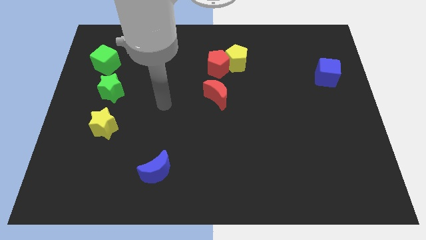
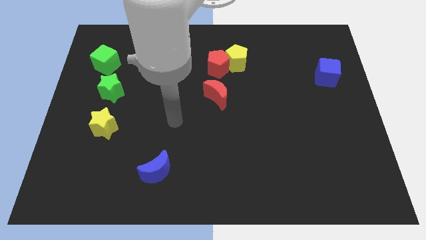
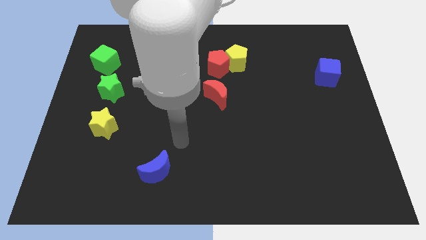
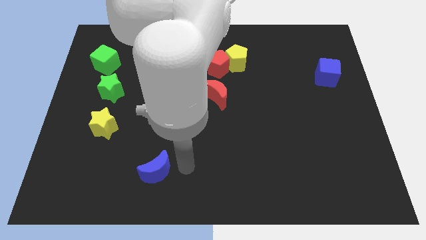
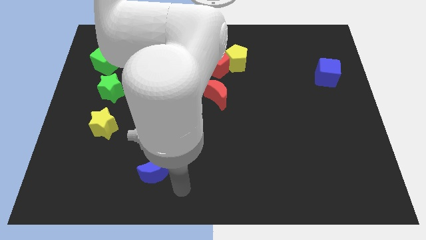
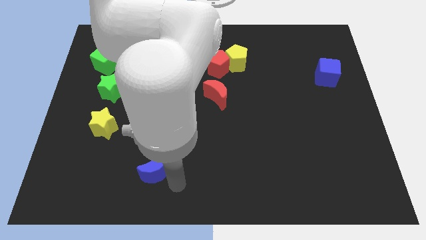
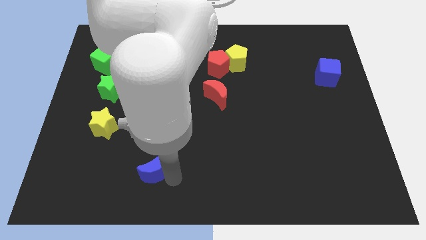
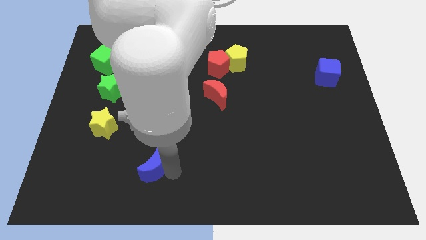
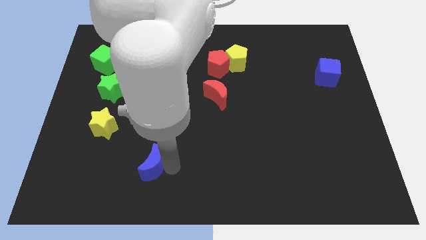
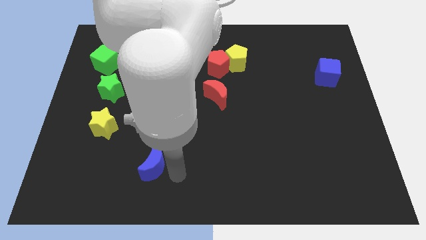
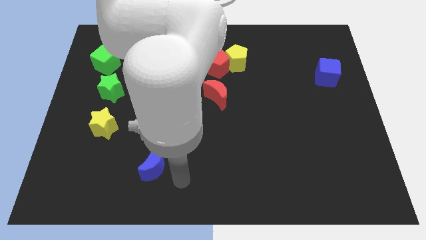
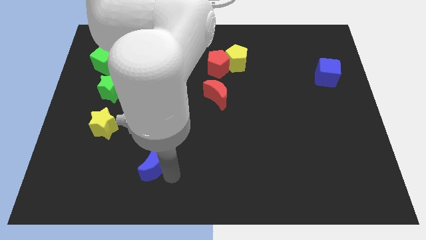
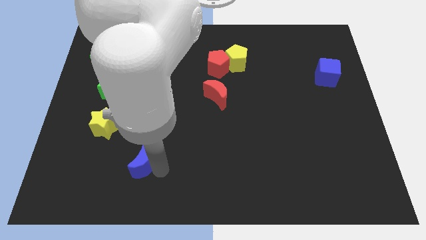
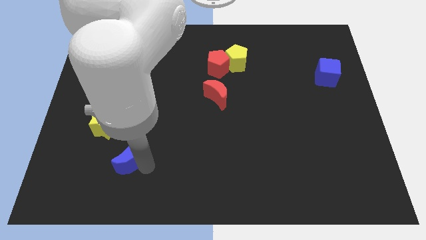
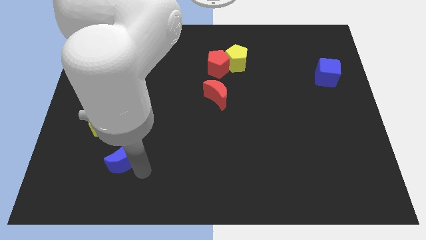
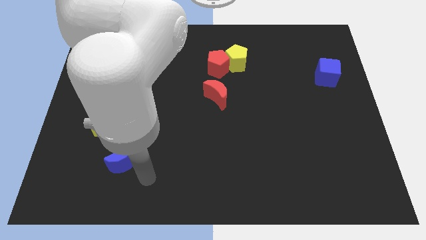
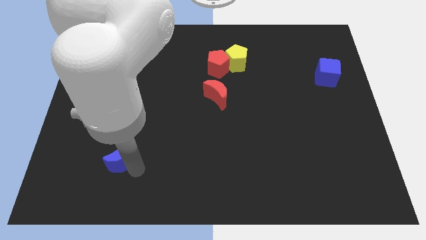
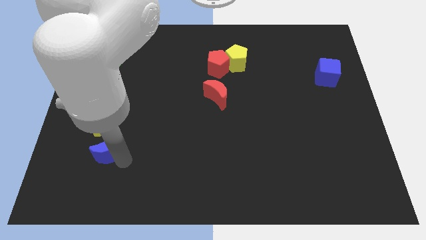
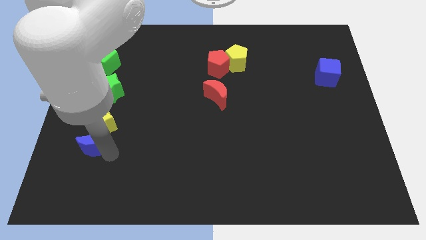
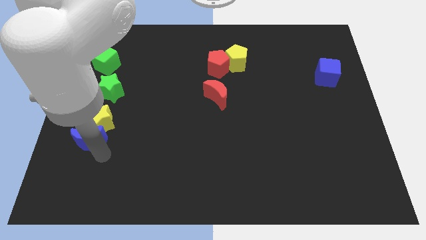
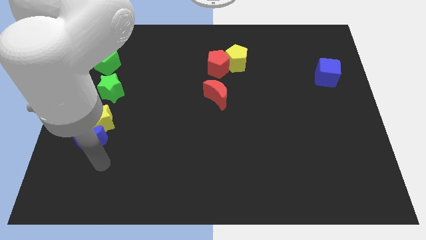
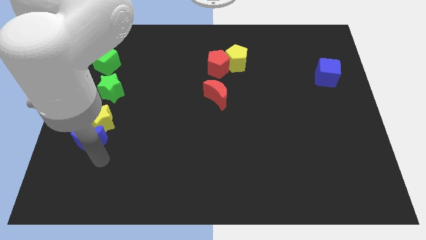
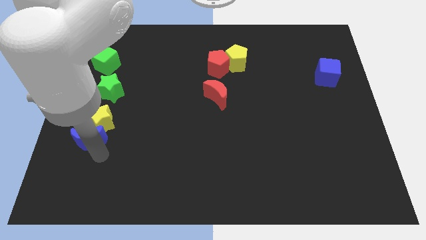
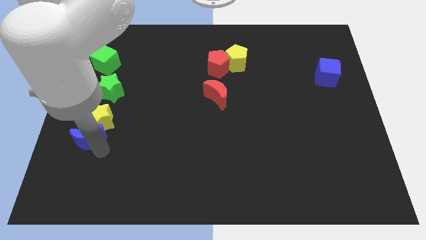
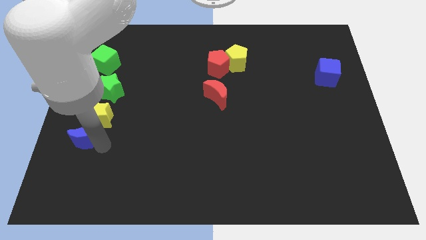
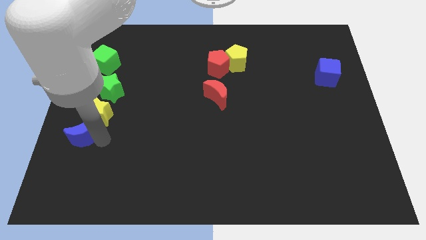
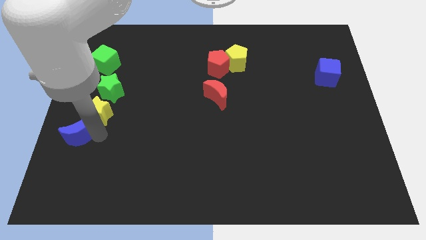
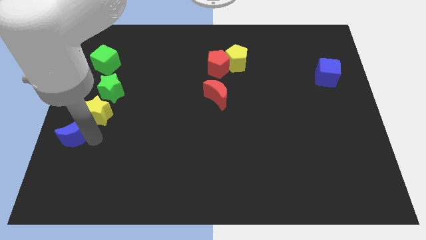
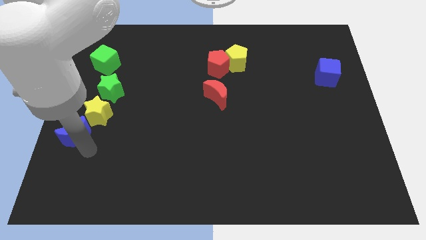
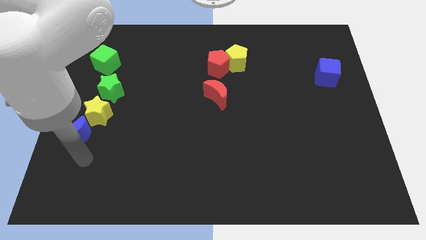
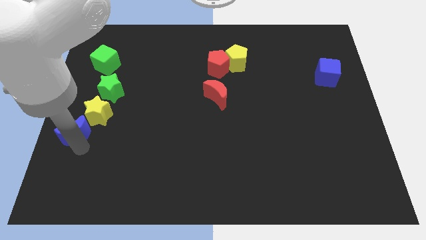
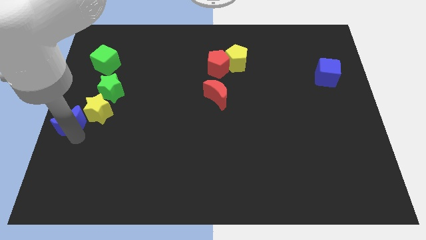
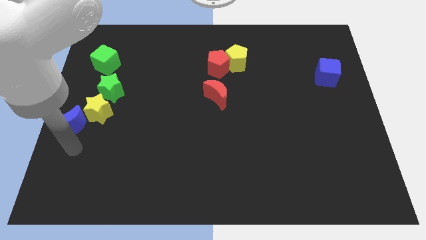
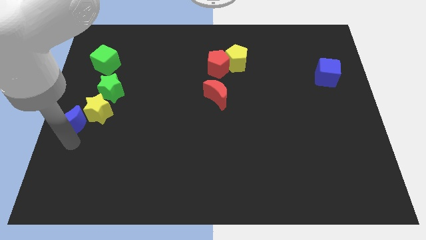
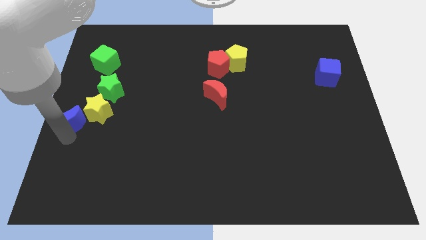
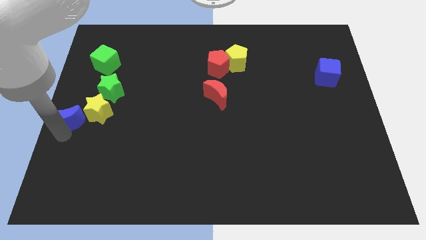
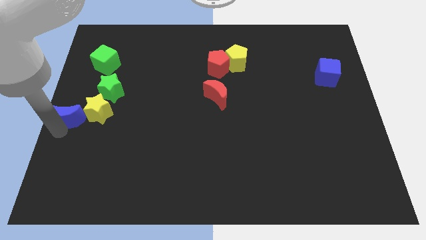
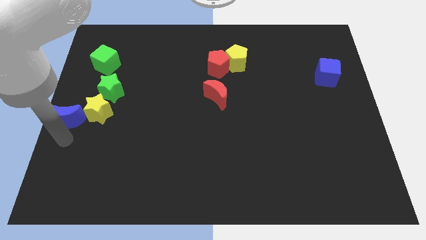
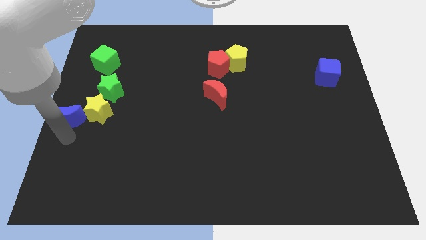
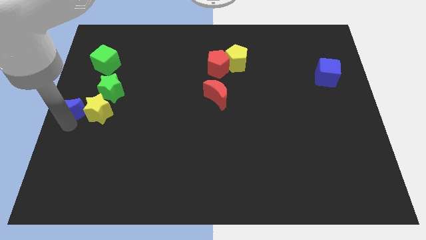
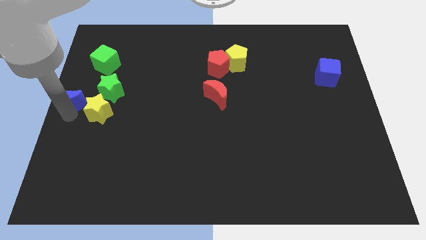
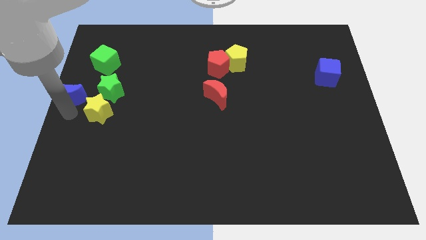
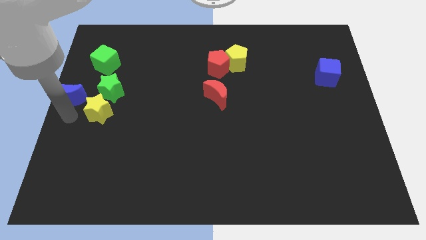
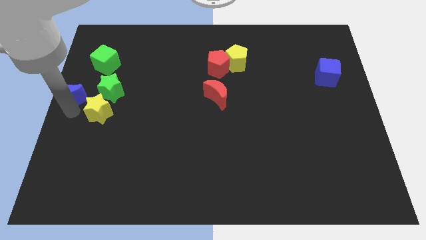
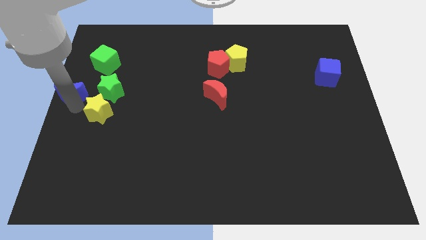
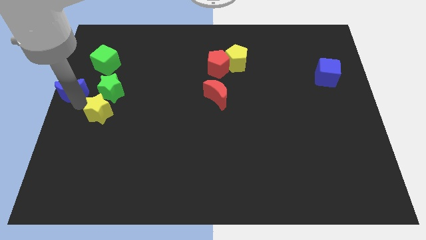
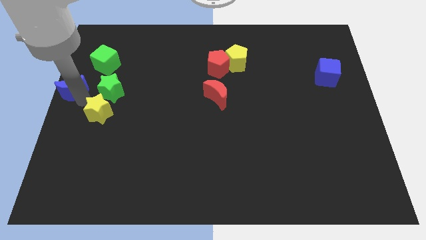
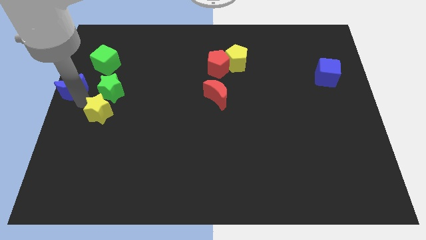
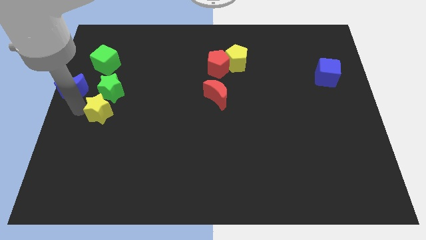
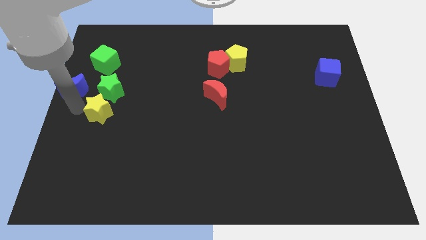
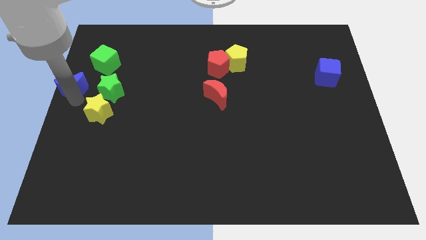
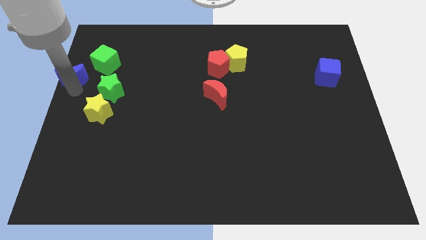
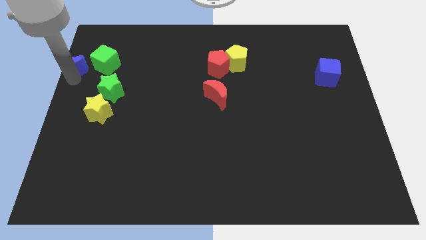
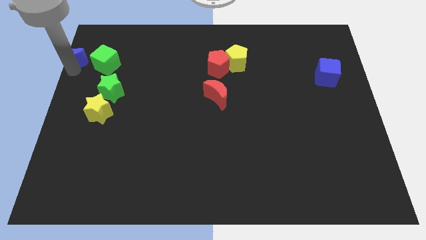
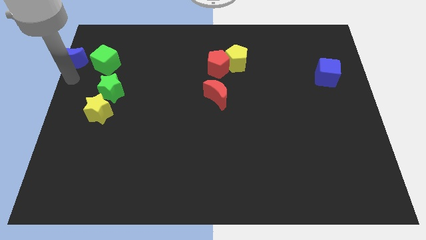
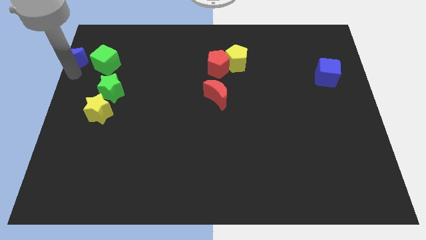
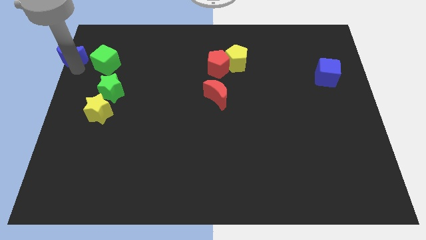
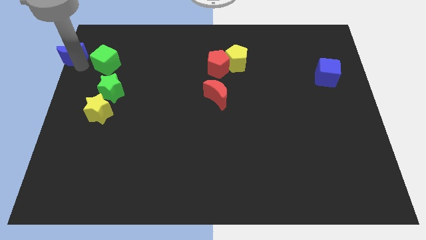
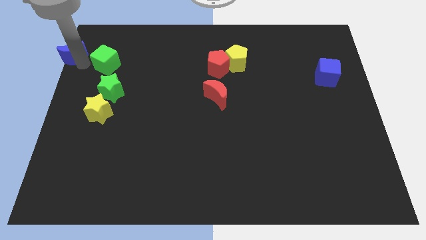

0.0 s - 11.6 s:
put the blue moon to the top left

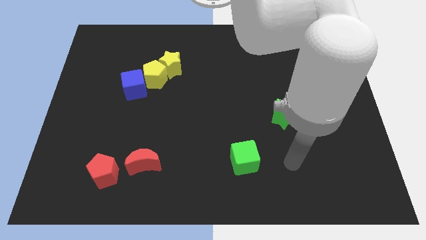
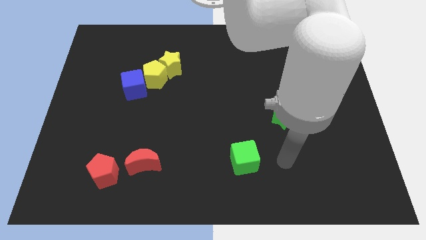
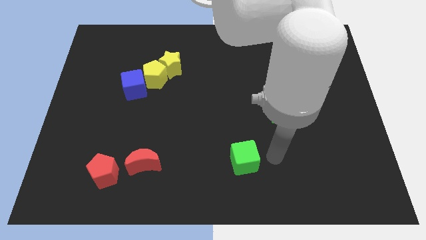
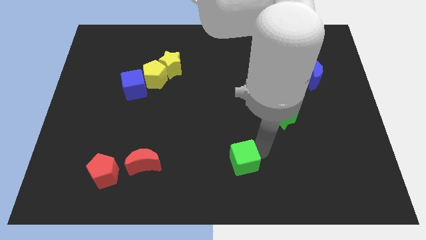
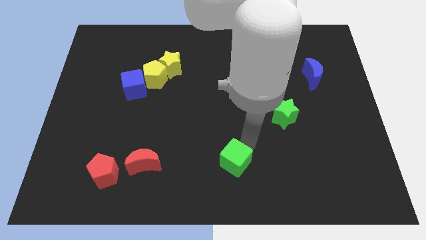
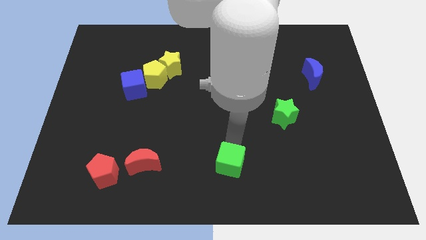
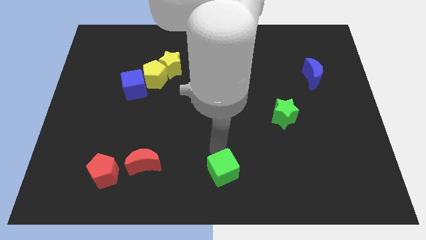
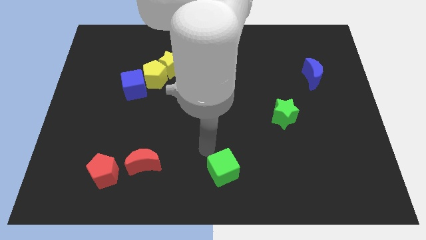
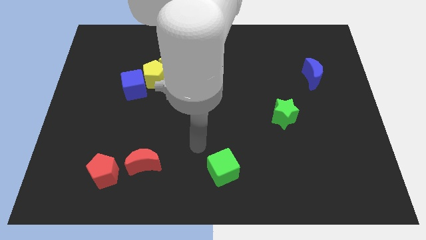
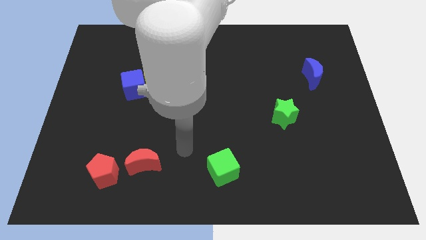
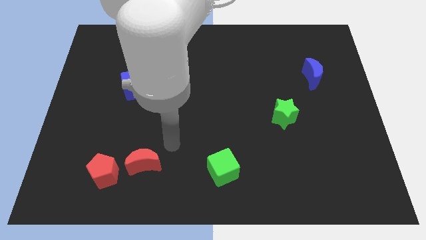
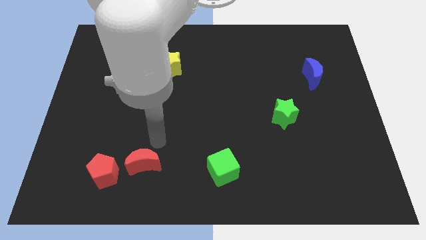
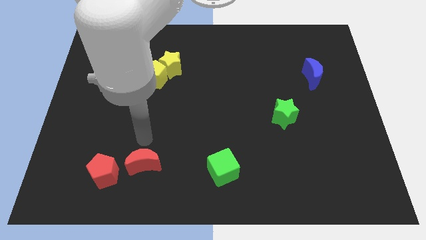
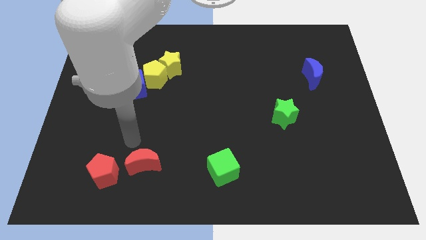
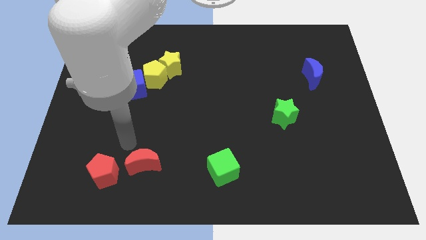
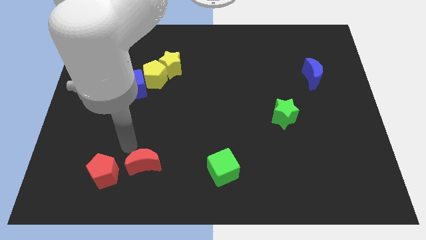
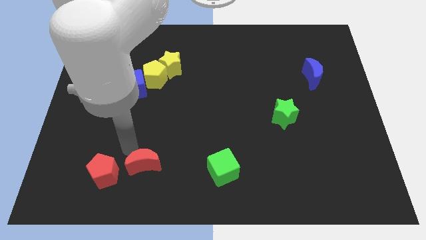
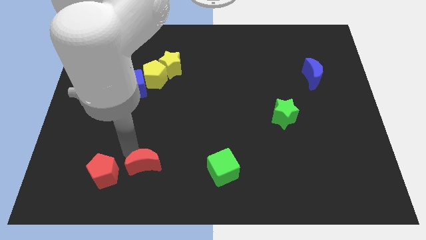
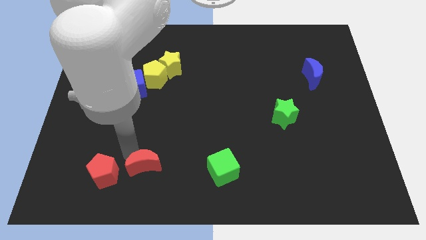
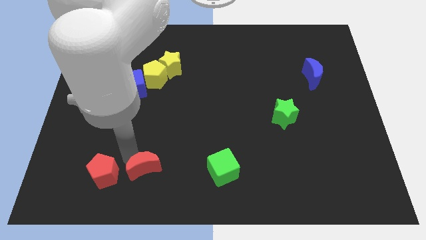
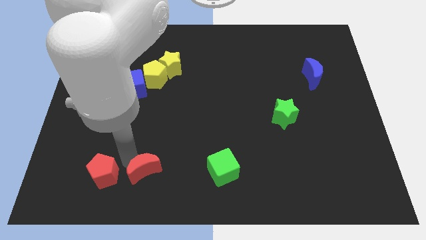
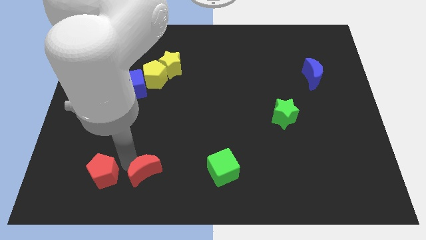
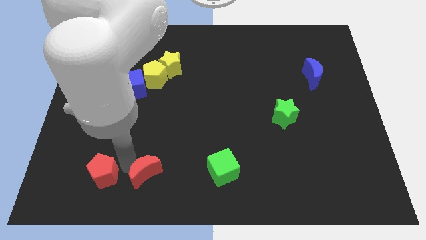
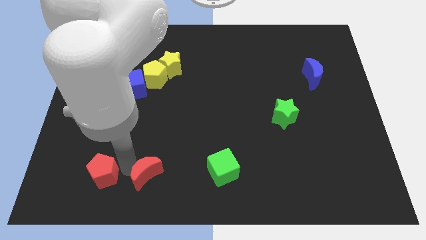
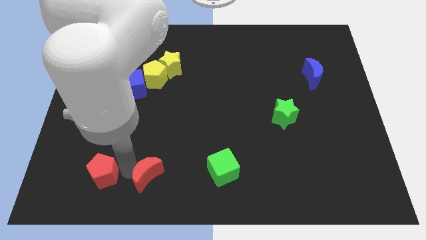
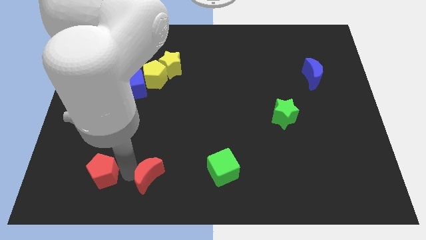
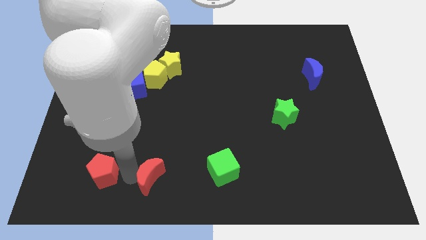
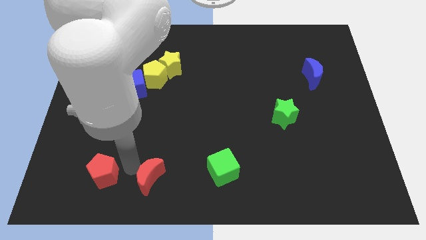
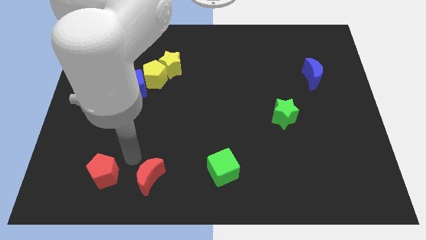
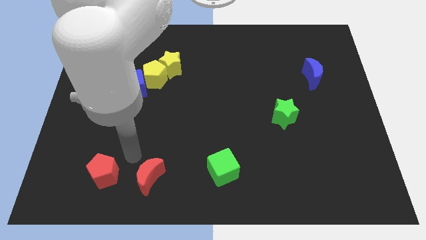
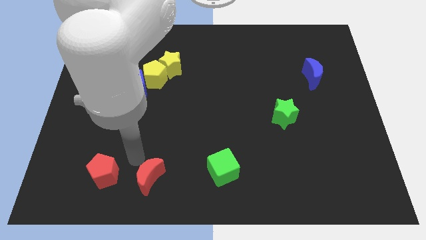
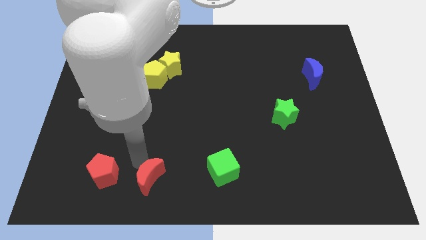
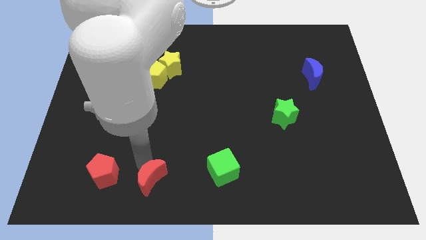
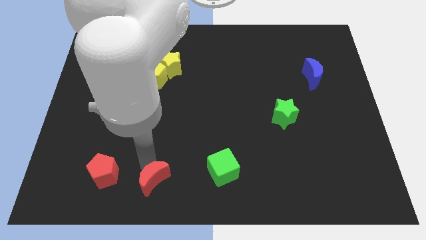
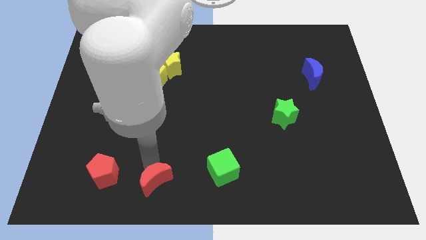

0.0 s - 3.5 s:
push the red moon to the bottom side
